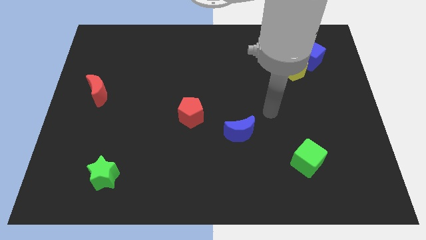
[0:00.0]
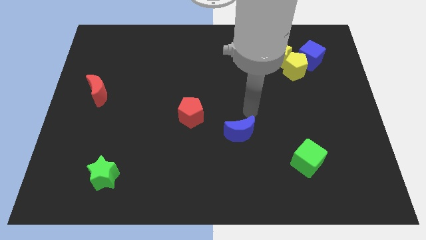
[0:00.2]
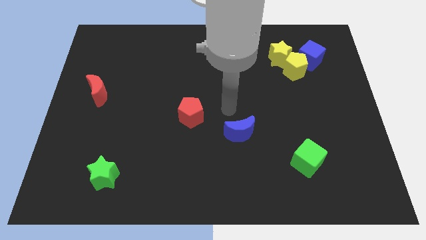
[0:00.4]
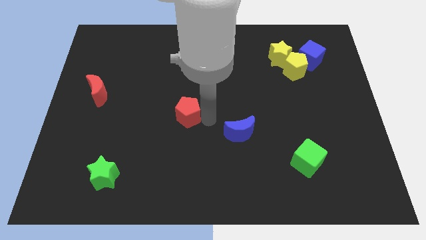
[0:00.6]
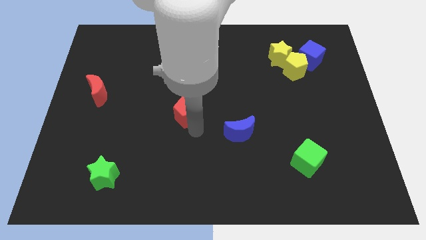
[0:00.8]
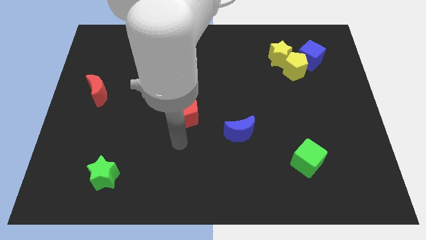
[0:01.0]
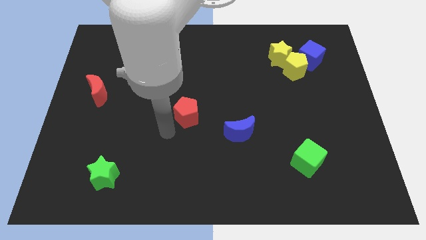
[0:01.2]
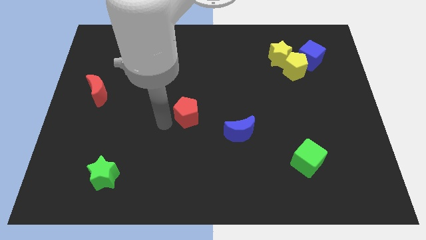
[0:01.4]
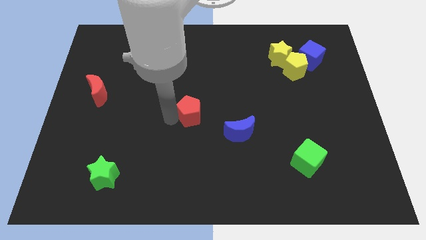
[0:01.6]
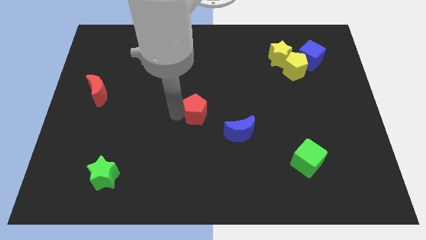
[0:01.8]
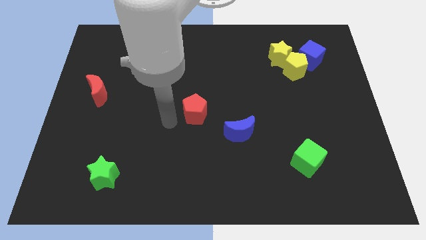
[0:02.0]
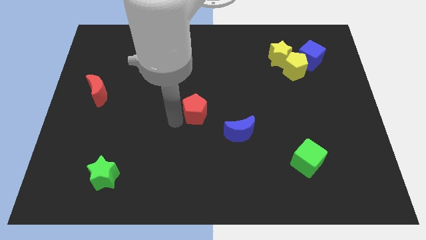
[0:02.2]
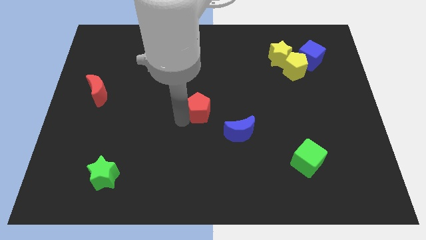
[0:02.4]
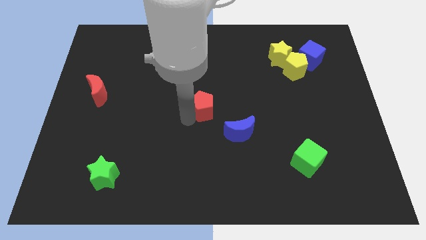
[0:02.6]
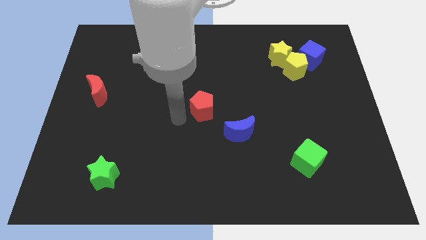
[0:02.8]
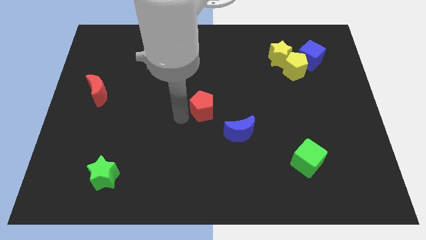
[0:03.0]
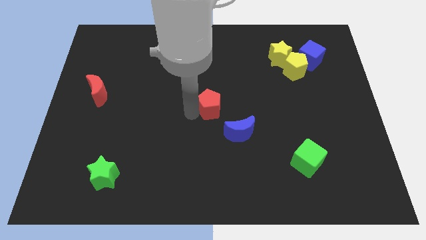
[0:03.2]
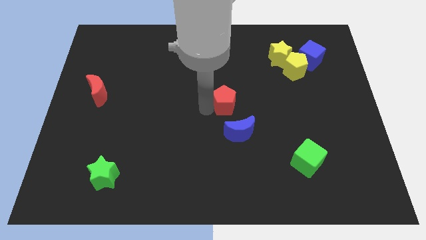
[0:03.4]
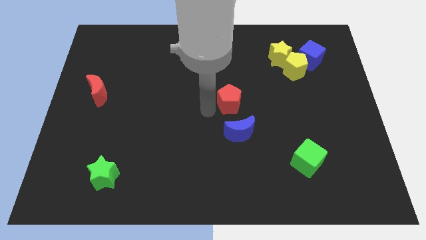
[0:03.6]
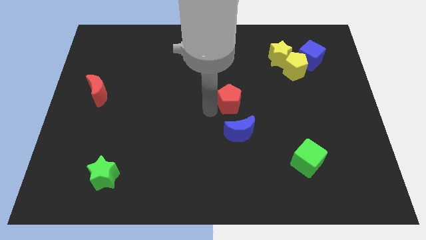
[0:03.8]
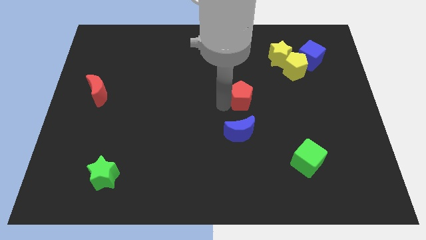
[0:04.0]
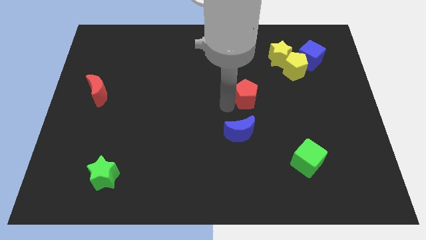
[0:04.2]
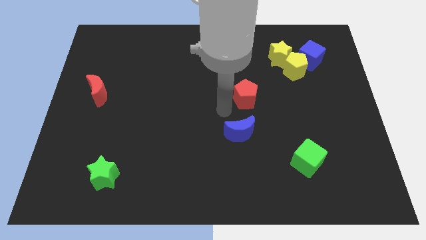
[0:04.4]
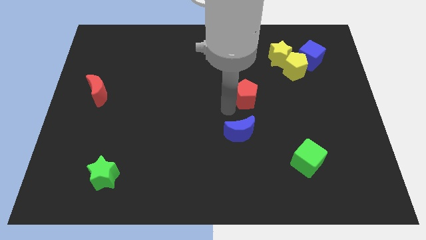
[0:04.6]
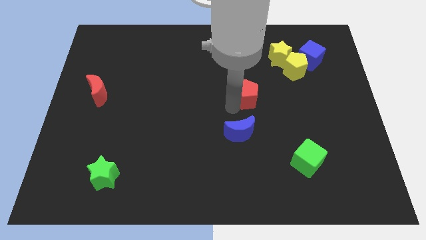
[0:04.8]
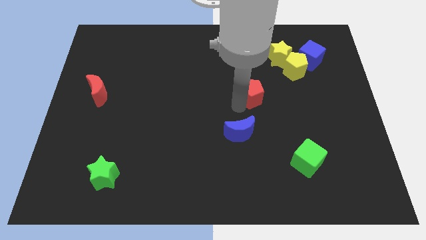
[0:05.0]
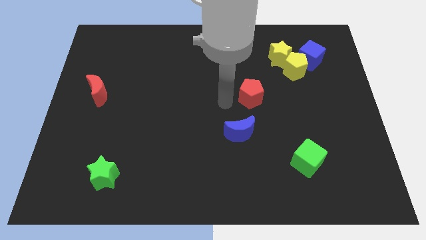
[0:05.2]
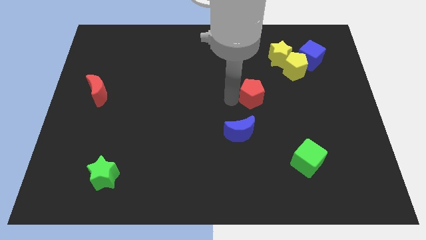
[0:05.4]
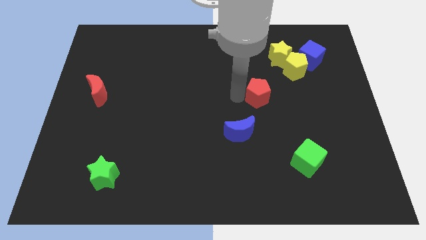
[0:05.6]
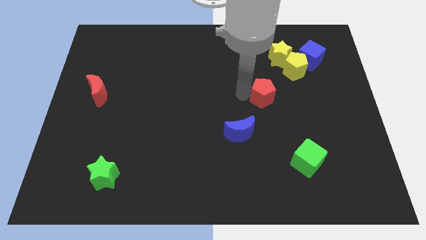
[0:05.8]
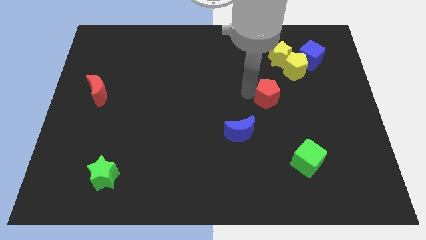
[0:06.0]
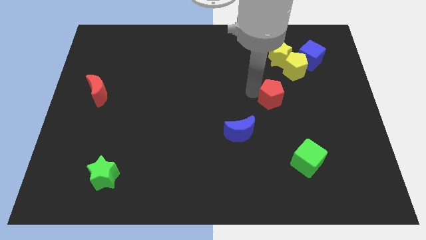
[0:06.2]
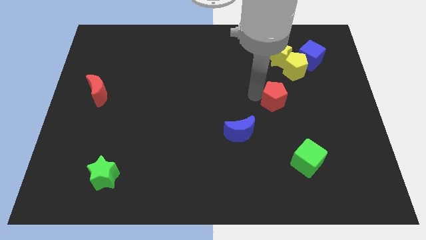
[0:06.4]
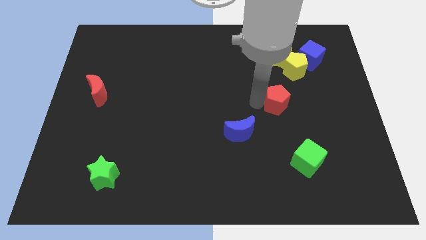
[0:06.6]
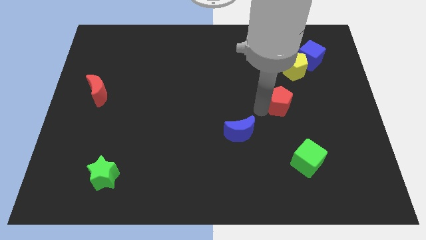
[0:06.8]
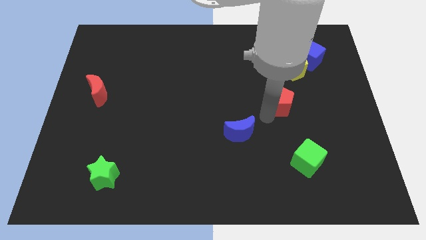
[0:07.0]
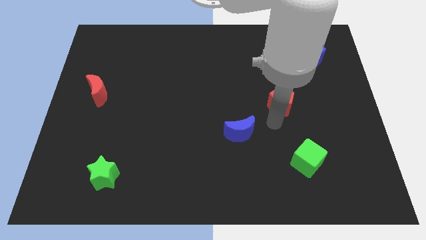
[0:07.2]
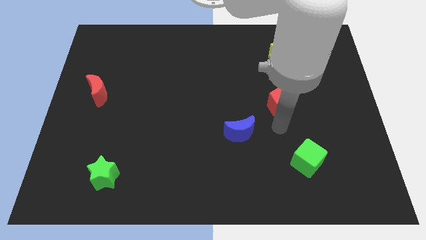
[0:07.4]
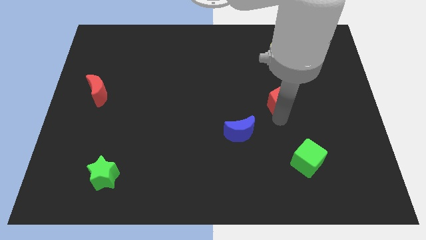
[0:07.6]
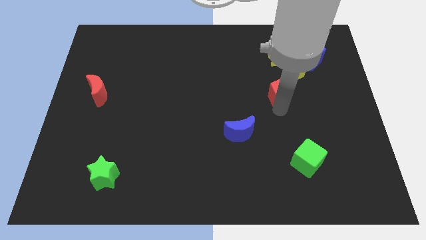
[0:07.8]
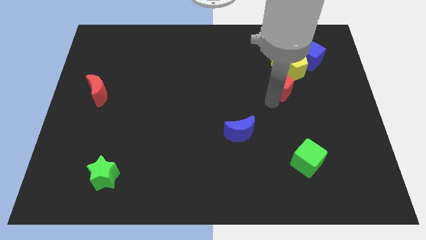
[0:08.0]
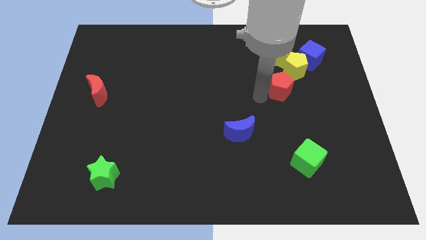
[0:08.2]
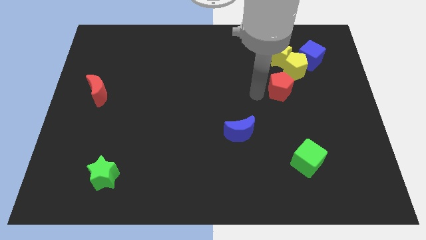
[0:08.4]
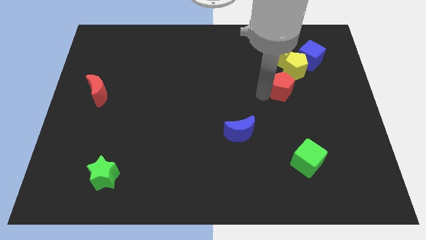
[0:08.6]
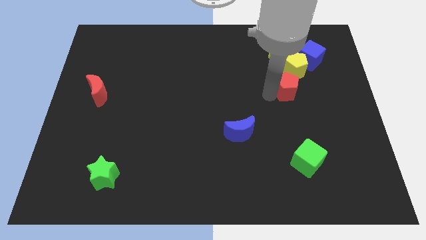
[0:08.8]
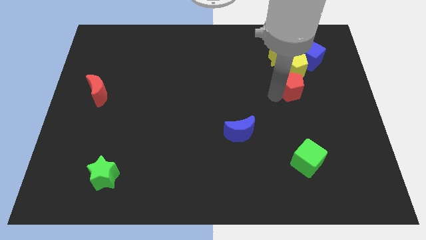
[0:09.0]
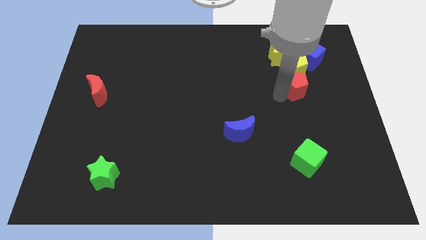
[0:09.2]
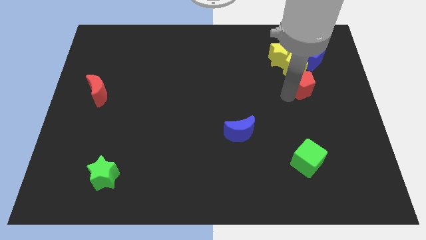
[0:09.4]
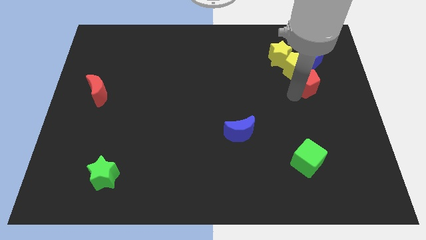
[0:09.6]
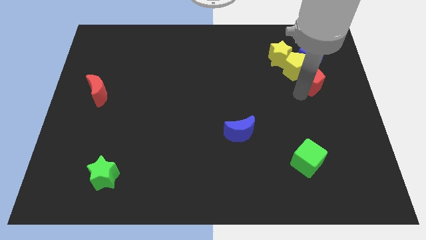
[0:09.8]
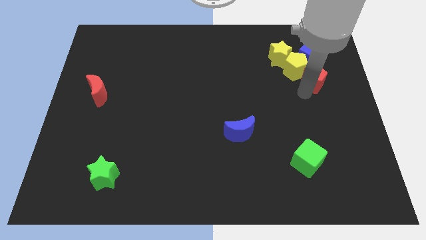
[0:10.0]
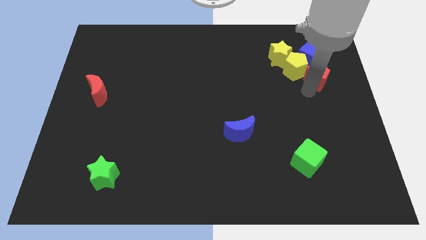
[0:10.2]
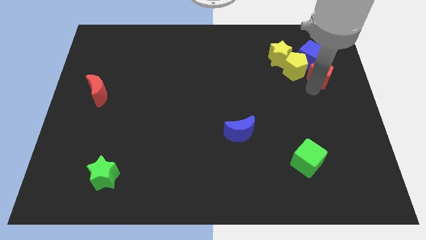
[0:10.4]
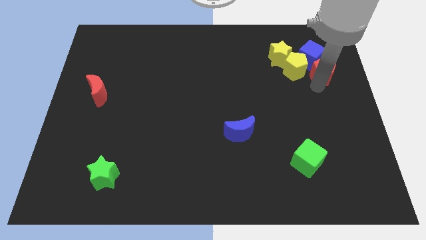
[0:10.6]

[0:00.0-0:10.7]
push the red pentagon towards the blue cube

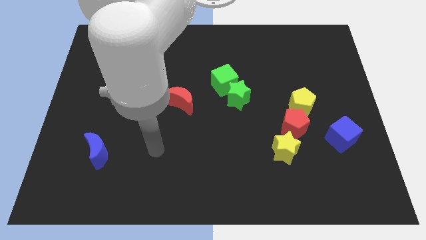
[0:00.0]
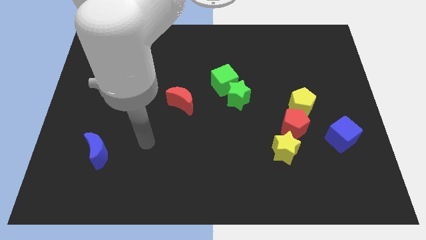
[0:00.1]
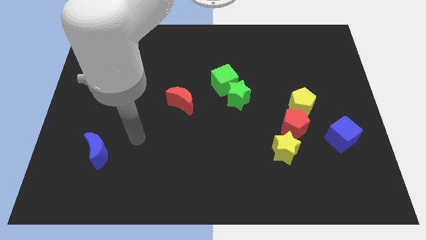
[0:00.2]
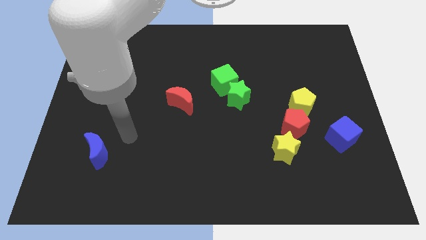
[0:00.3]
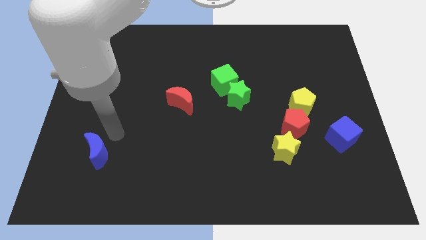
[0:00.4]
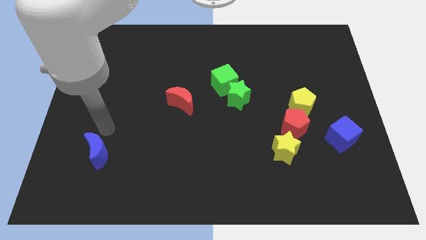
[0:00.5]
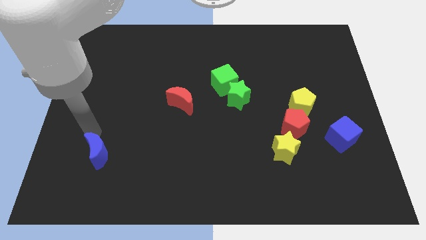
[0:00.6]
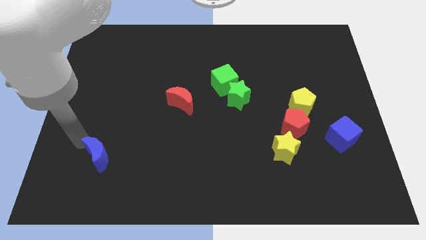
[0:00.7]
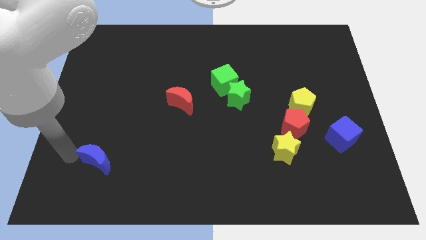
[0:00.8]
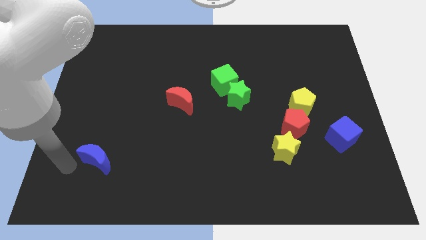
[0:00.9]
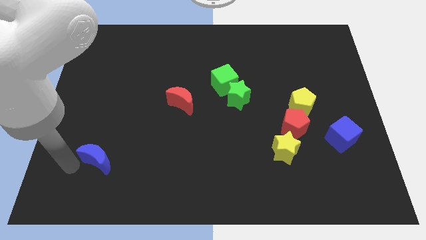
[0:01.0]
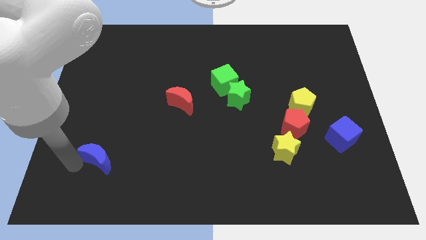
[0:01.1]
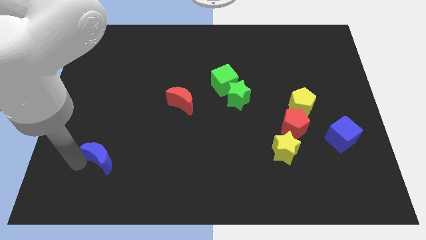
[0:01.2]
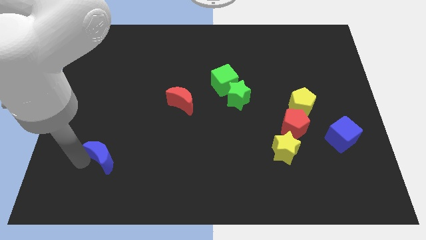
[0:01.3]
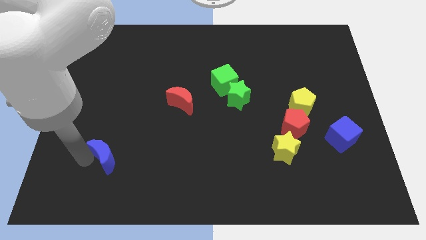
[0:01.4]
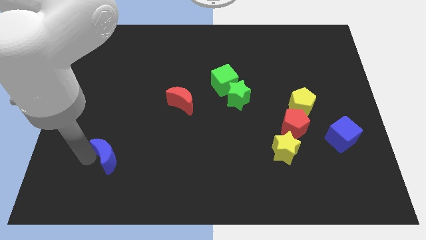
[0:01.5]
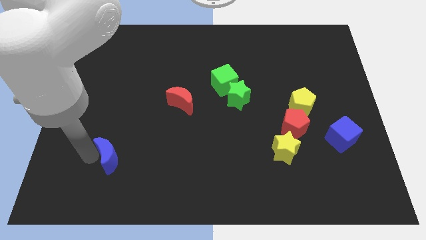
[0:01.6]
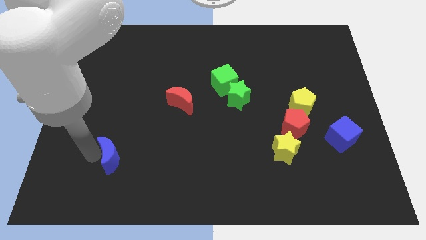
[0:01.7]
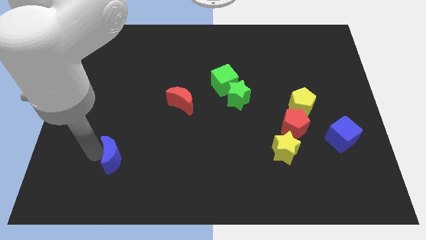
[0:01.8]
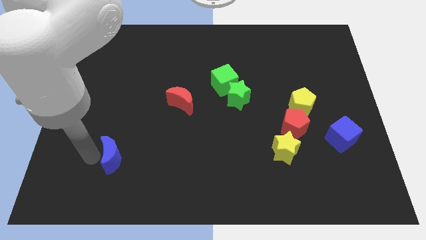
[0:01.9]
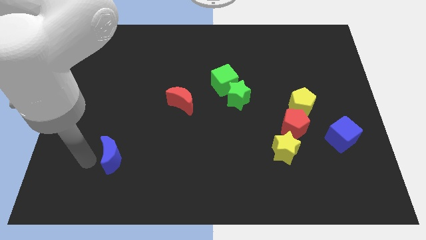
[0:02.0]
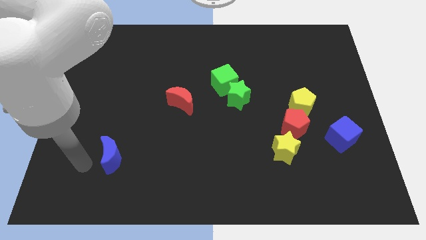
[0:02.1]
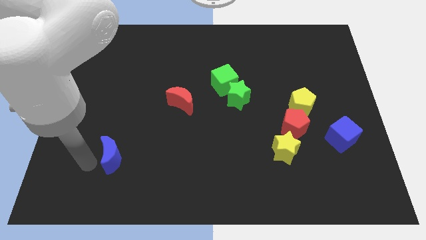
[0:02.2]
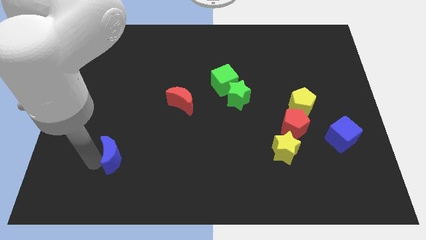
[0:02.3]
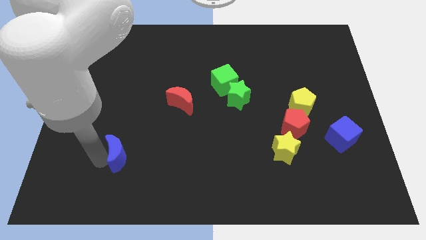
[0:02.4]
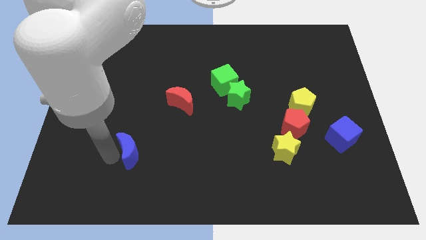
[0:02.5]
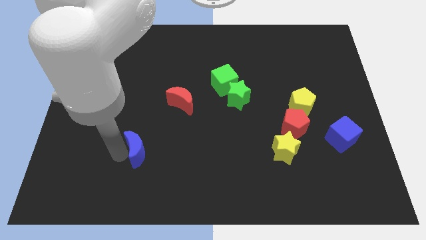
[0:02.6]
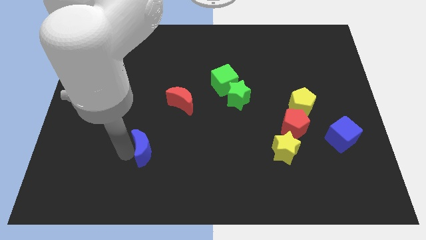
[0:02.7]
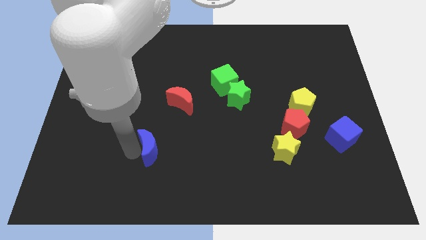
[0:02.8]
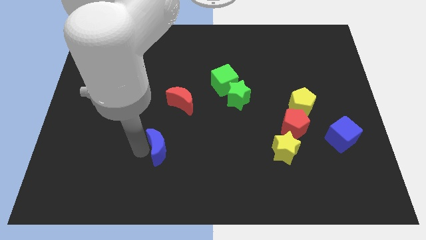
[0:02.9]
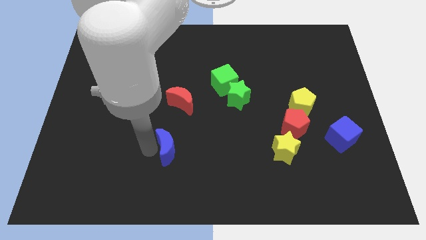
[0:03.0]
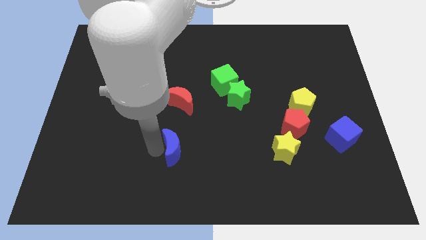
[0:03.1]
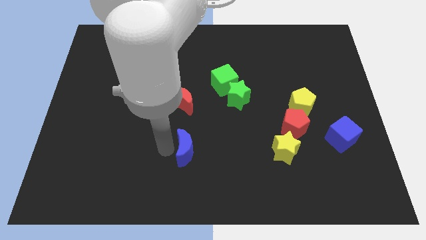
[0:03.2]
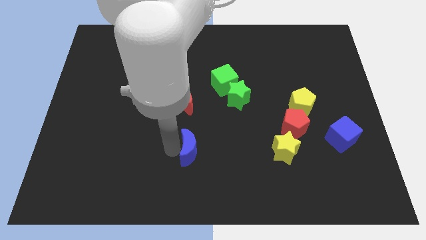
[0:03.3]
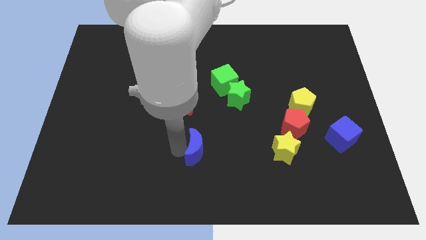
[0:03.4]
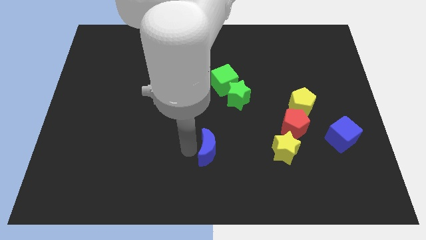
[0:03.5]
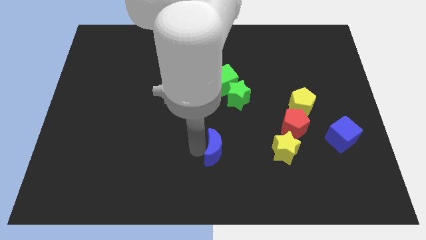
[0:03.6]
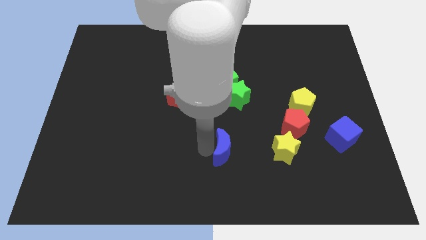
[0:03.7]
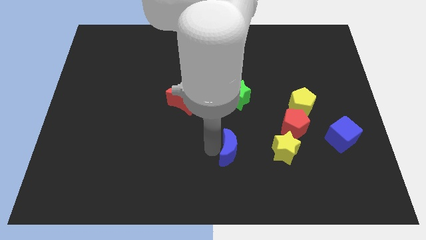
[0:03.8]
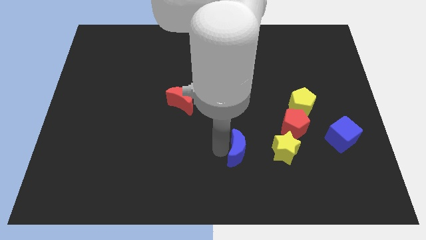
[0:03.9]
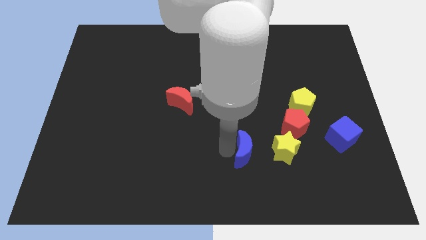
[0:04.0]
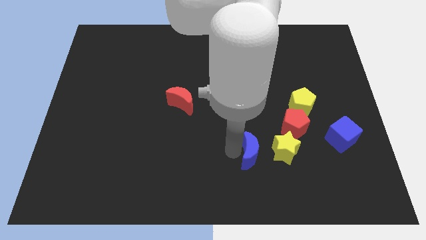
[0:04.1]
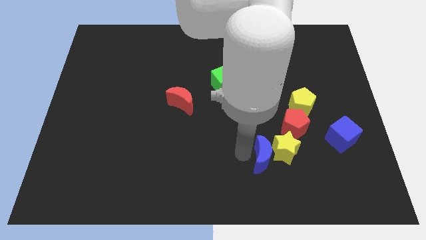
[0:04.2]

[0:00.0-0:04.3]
put the blue moon next to the yellow star
